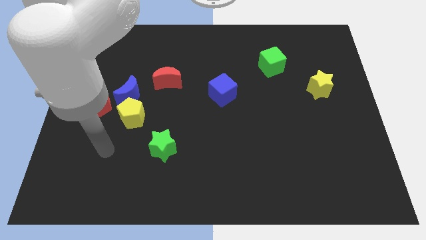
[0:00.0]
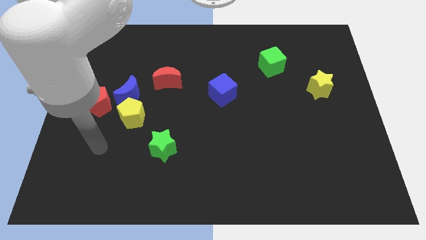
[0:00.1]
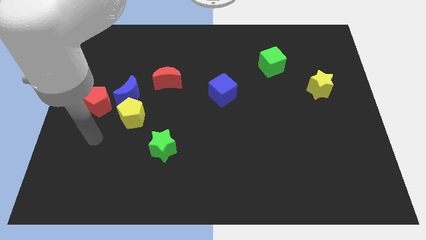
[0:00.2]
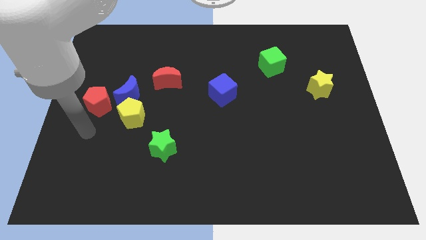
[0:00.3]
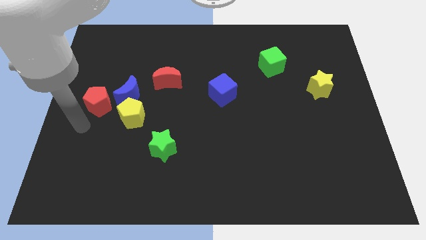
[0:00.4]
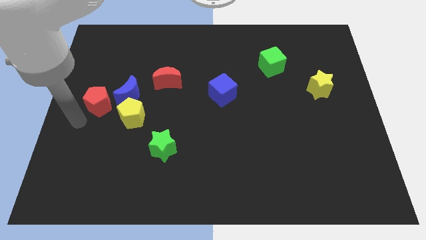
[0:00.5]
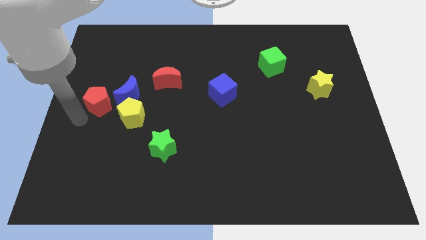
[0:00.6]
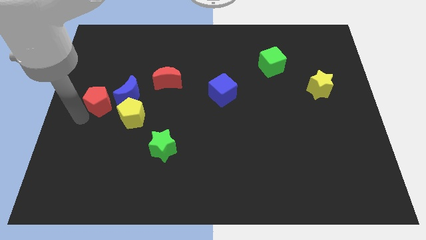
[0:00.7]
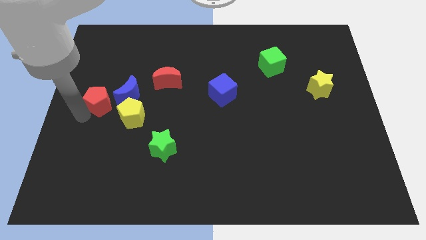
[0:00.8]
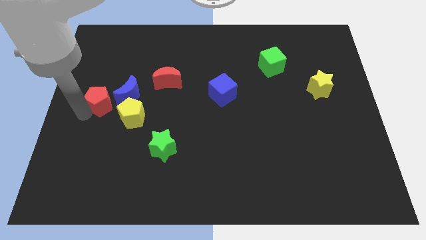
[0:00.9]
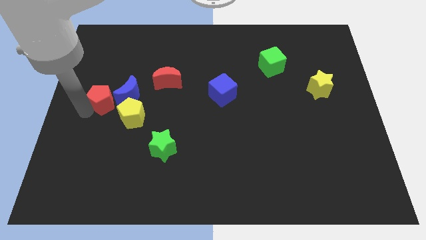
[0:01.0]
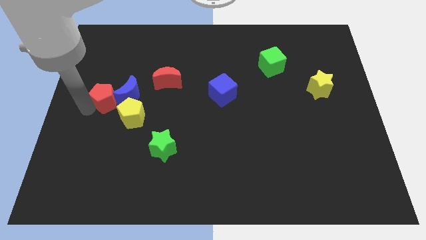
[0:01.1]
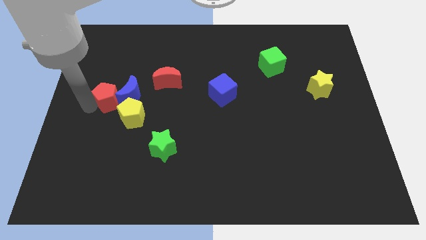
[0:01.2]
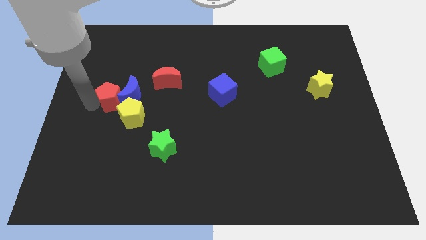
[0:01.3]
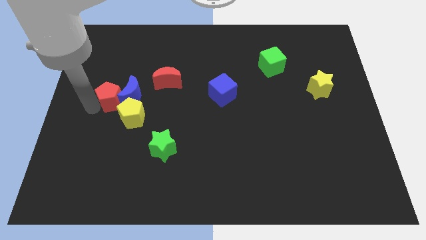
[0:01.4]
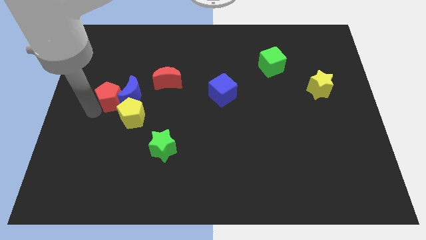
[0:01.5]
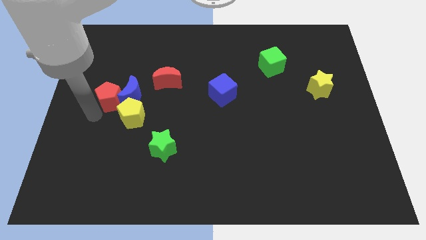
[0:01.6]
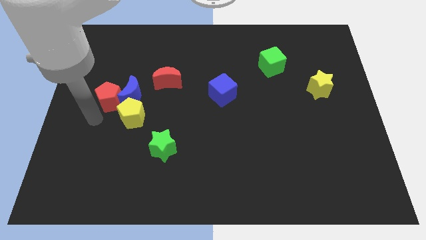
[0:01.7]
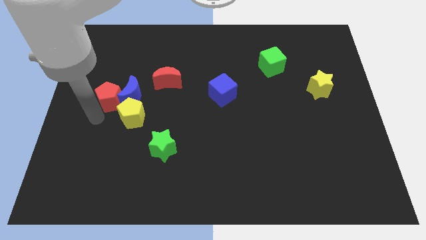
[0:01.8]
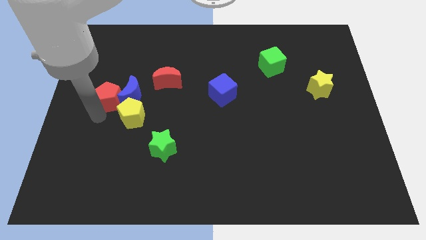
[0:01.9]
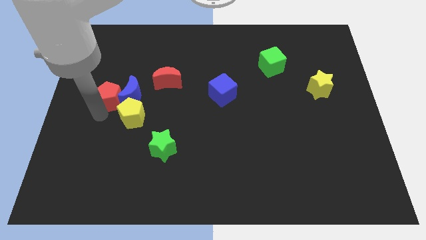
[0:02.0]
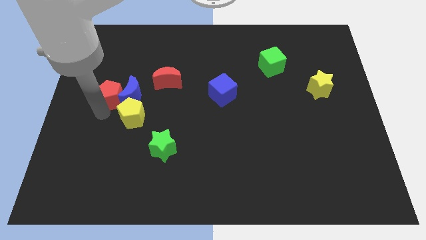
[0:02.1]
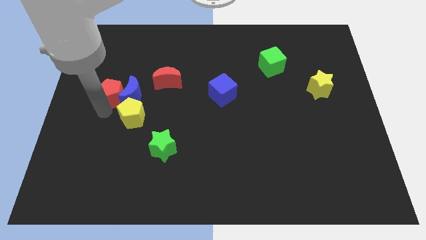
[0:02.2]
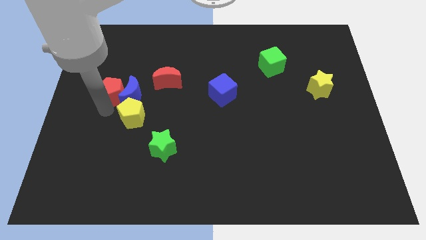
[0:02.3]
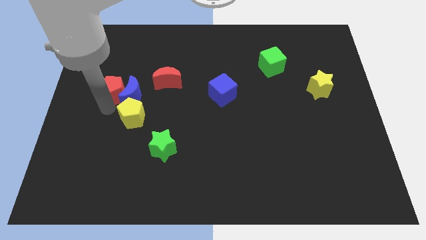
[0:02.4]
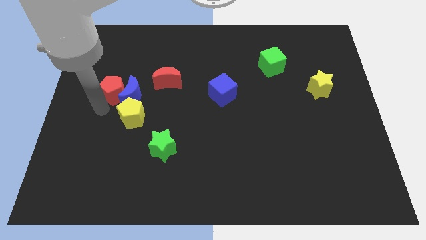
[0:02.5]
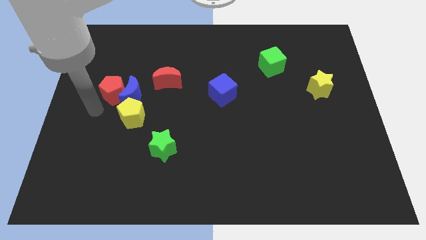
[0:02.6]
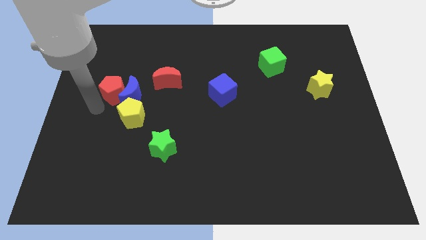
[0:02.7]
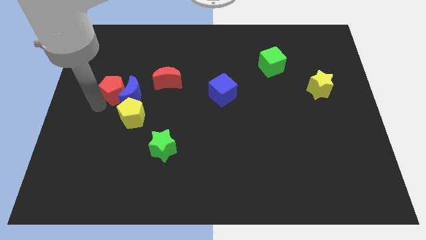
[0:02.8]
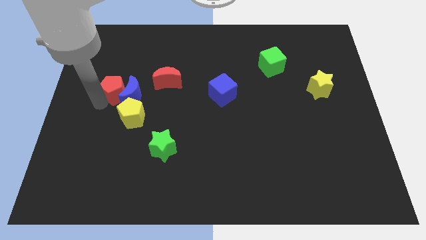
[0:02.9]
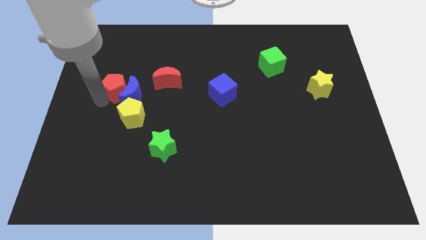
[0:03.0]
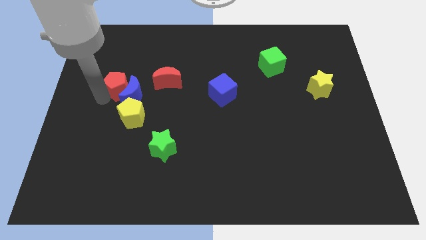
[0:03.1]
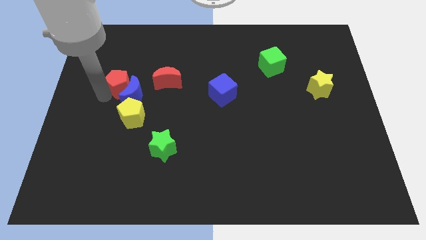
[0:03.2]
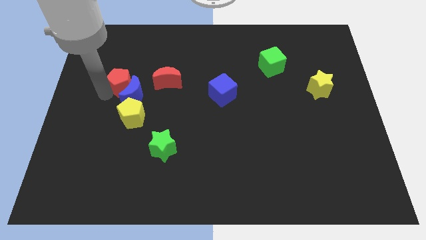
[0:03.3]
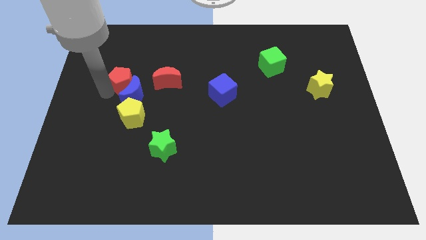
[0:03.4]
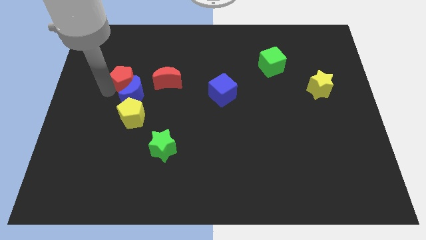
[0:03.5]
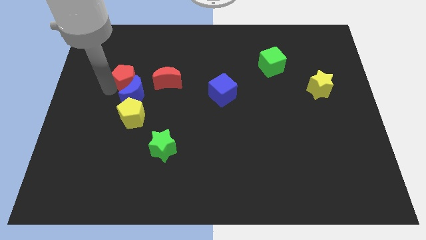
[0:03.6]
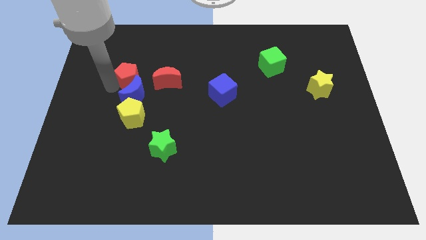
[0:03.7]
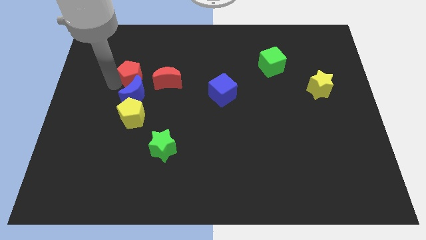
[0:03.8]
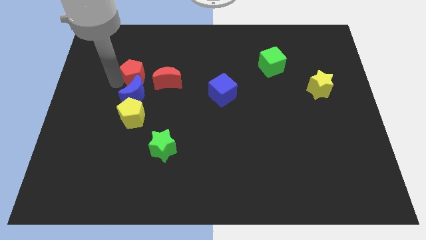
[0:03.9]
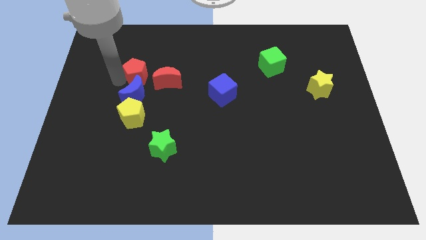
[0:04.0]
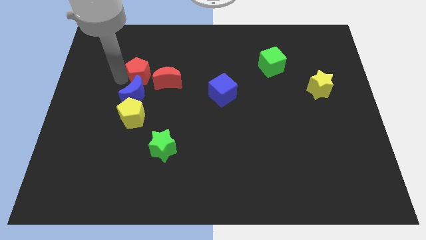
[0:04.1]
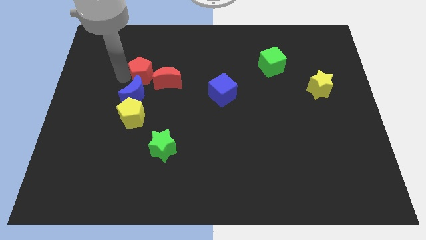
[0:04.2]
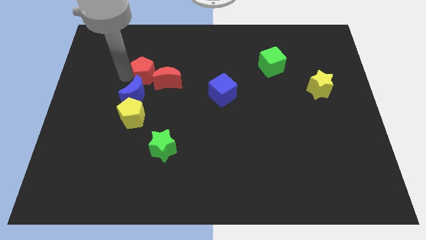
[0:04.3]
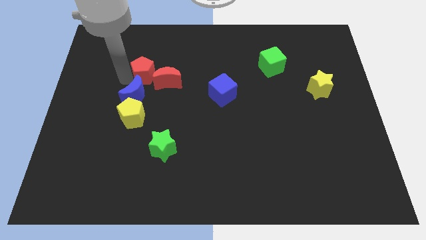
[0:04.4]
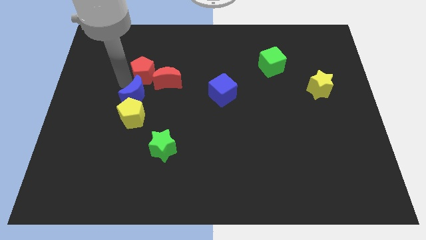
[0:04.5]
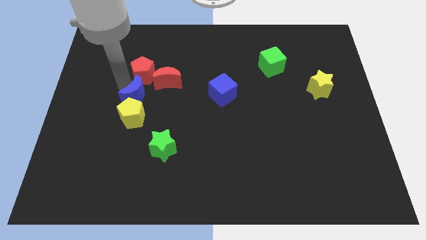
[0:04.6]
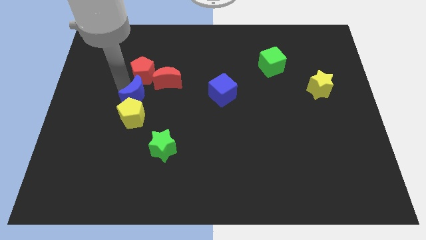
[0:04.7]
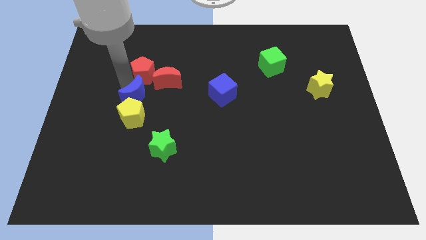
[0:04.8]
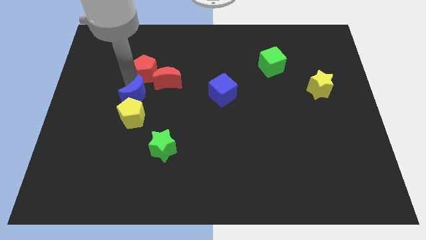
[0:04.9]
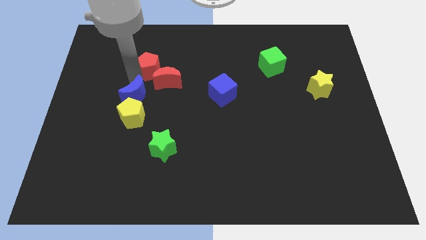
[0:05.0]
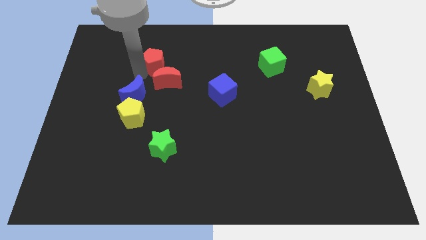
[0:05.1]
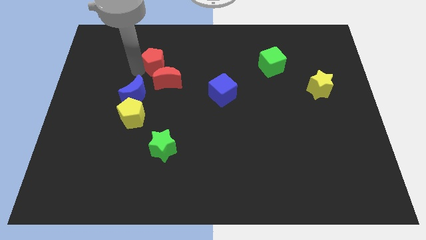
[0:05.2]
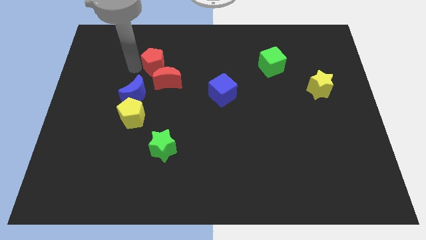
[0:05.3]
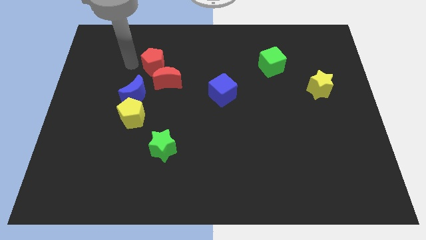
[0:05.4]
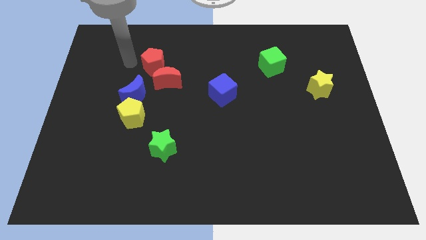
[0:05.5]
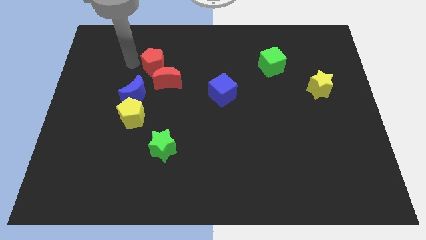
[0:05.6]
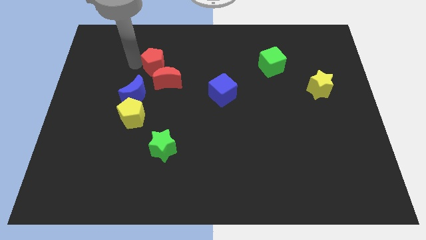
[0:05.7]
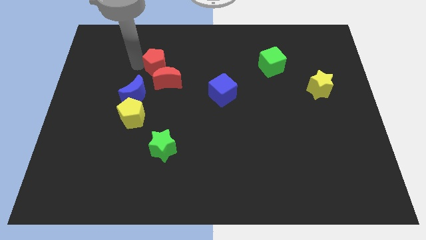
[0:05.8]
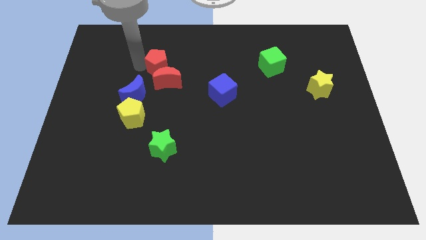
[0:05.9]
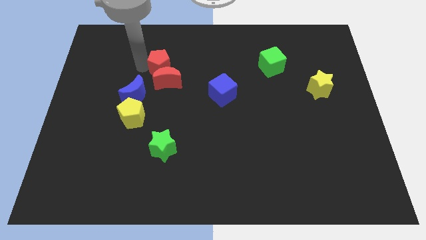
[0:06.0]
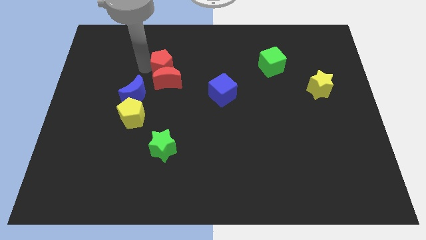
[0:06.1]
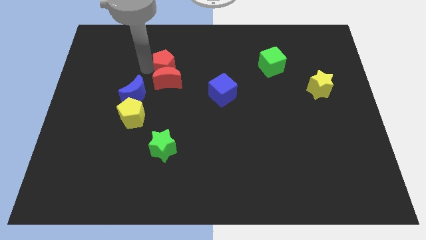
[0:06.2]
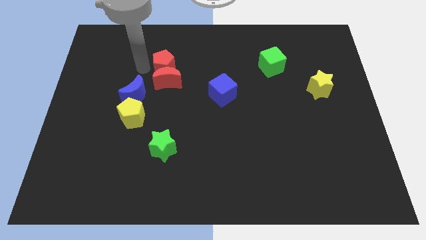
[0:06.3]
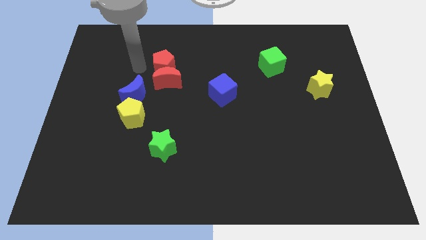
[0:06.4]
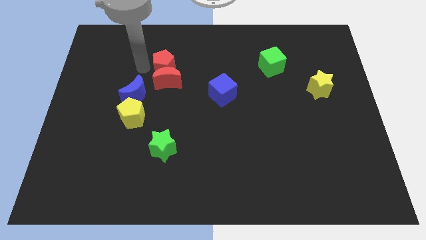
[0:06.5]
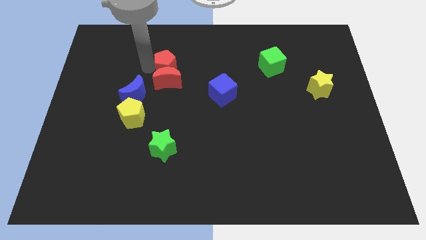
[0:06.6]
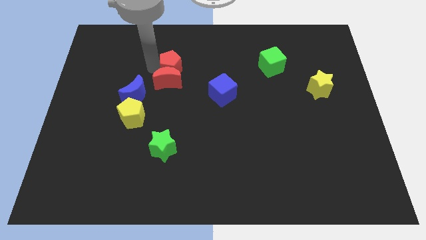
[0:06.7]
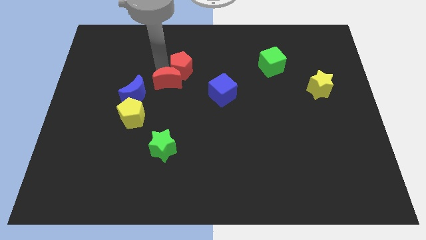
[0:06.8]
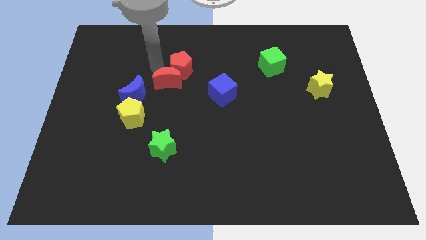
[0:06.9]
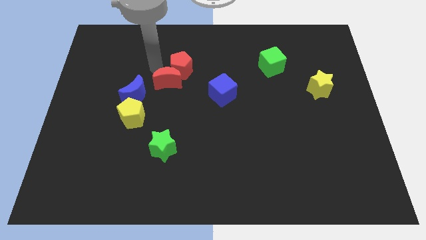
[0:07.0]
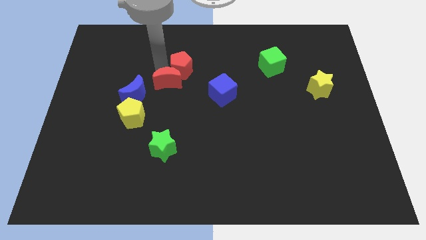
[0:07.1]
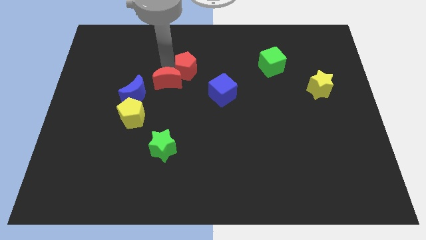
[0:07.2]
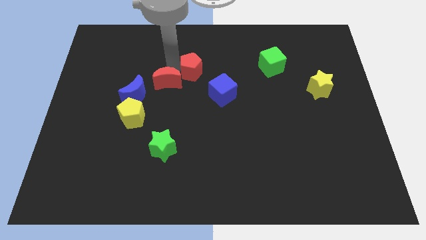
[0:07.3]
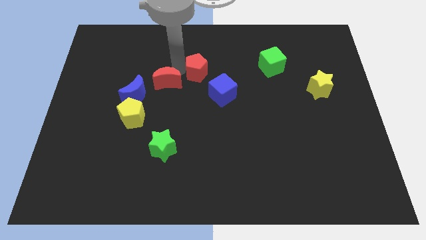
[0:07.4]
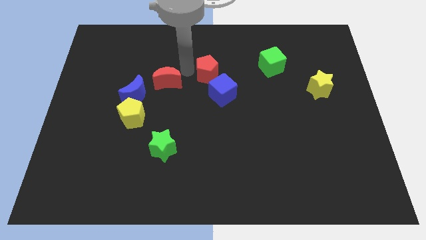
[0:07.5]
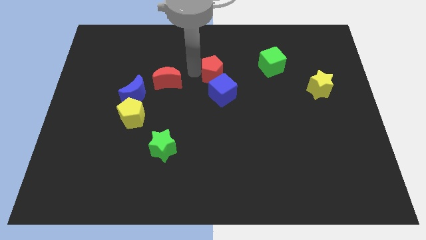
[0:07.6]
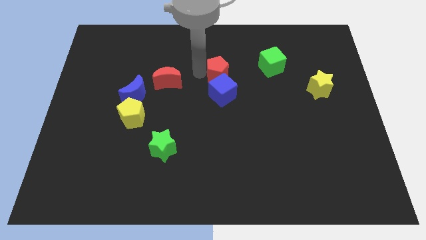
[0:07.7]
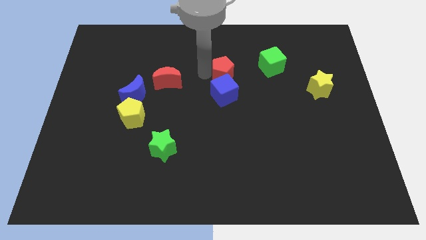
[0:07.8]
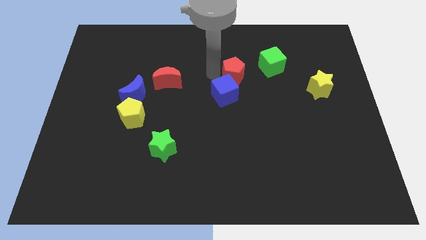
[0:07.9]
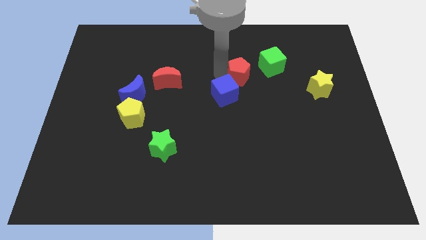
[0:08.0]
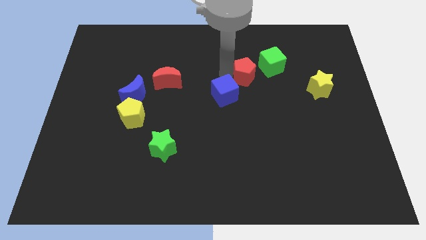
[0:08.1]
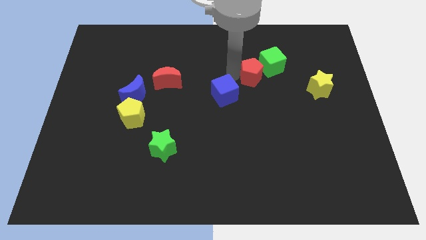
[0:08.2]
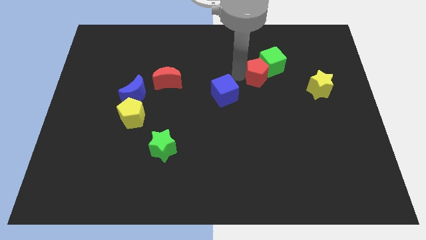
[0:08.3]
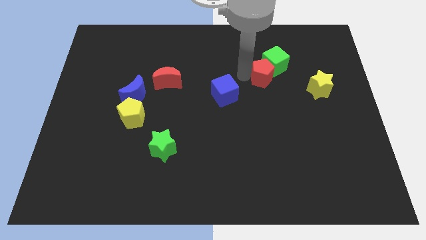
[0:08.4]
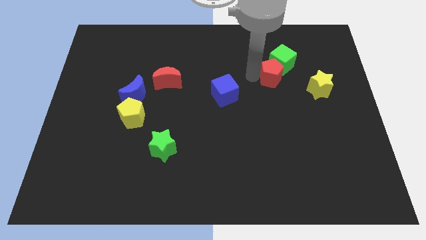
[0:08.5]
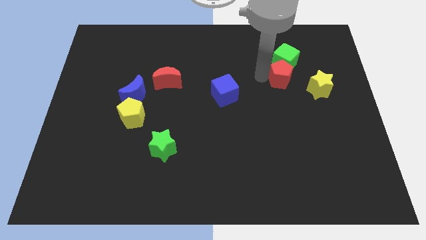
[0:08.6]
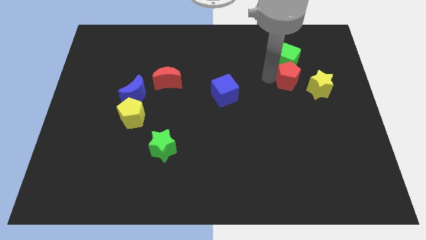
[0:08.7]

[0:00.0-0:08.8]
move the red pentagon diagonally down and to the right of the green cube
